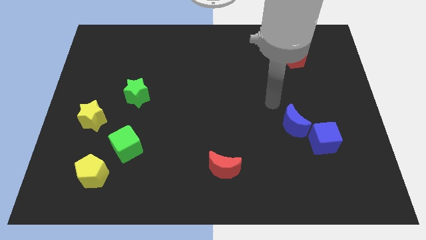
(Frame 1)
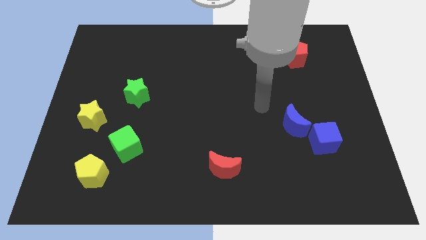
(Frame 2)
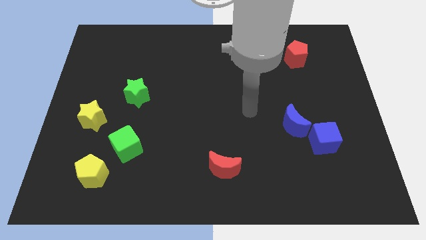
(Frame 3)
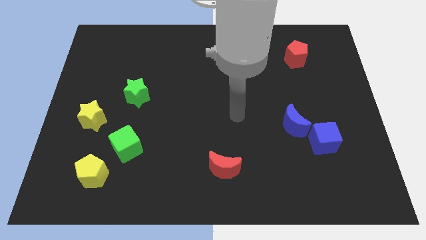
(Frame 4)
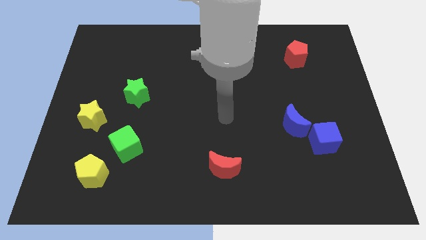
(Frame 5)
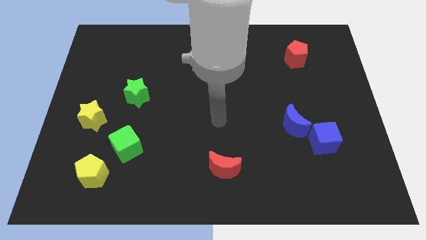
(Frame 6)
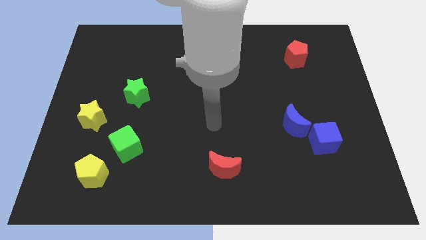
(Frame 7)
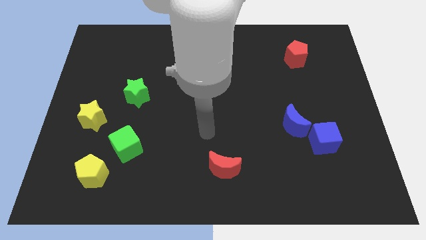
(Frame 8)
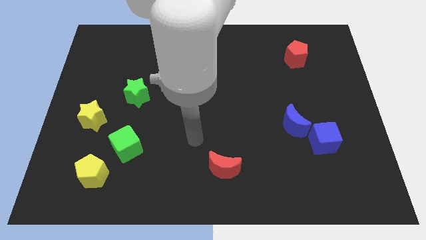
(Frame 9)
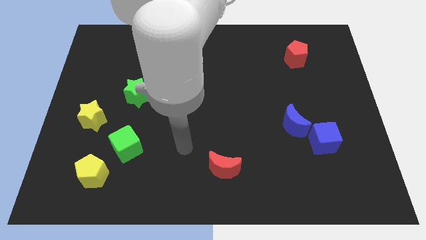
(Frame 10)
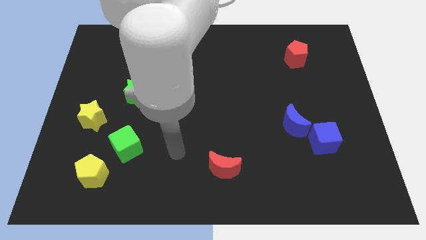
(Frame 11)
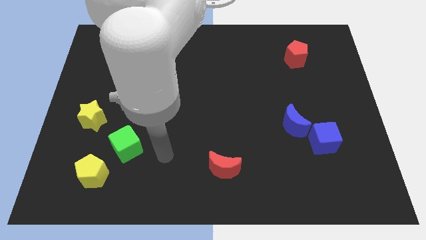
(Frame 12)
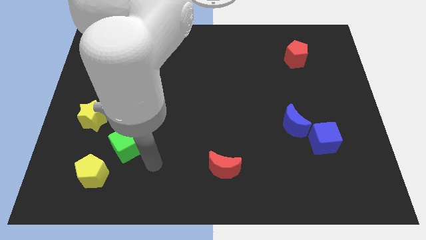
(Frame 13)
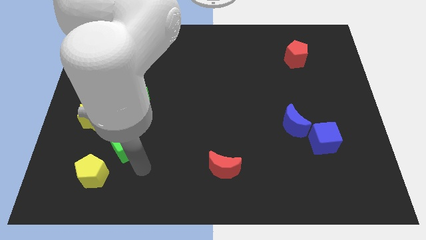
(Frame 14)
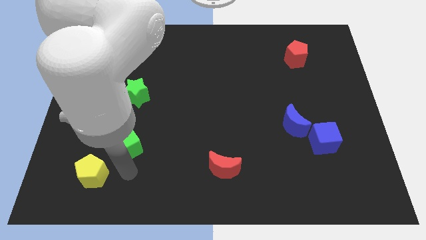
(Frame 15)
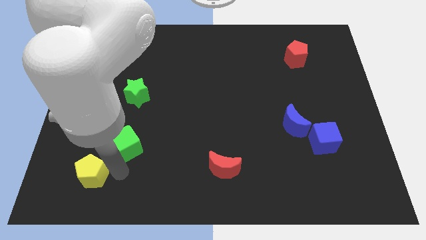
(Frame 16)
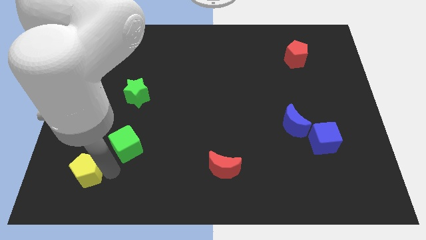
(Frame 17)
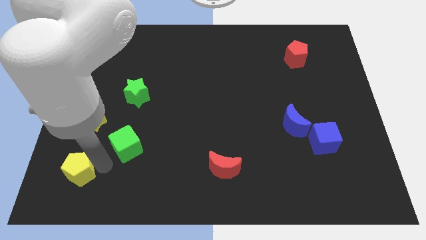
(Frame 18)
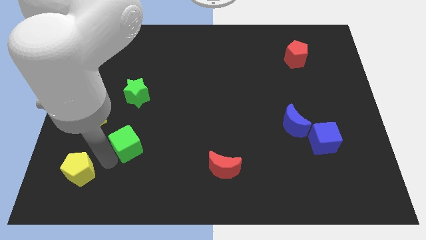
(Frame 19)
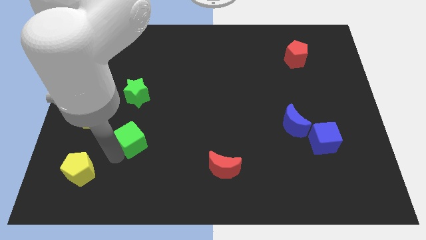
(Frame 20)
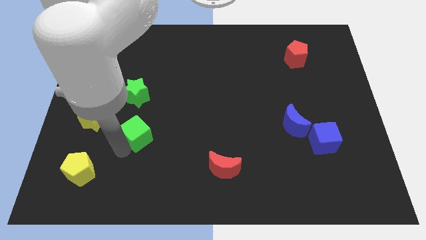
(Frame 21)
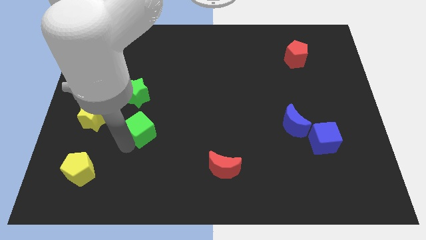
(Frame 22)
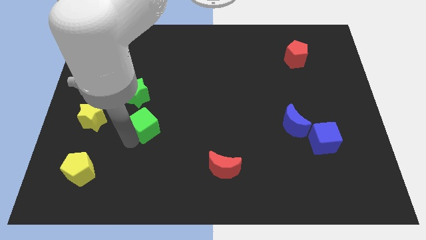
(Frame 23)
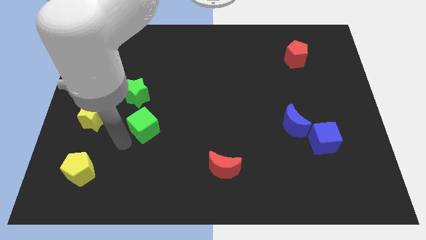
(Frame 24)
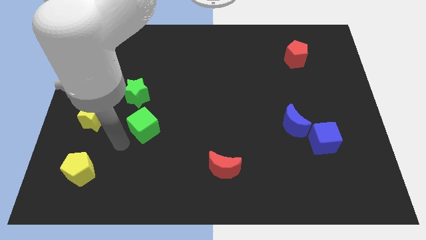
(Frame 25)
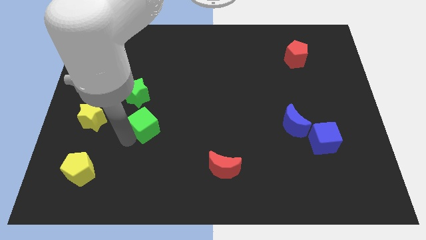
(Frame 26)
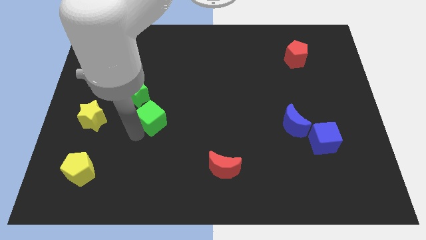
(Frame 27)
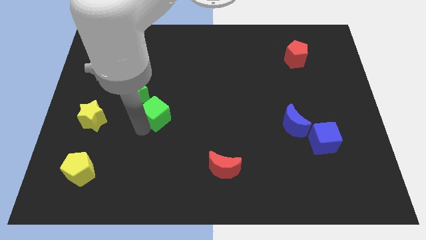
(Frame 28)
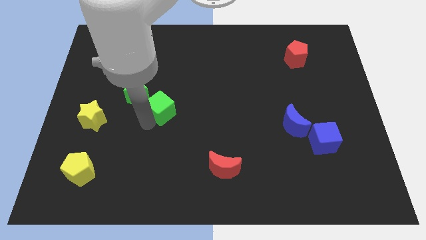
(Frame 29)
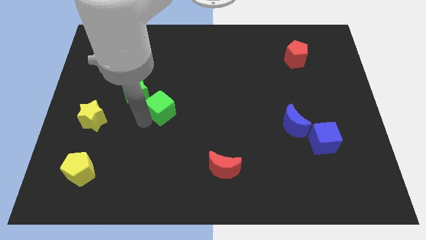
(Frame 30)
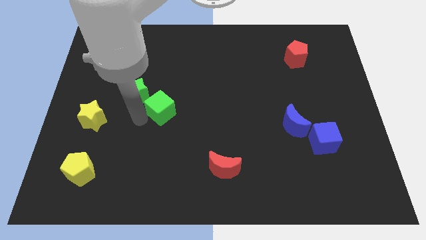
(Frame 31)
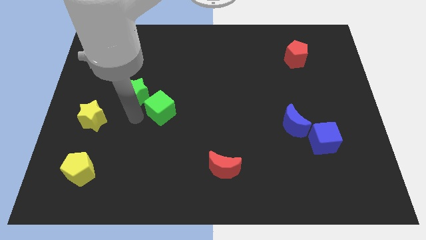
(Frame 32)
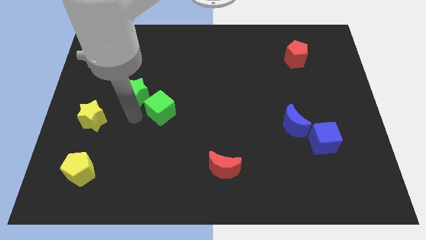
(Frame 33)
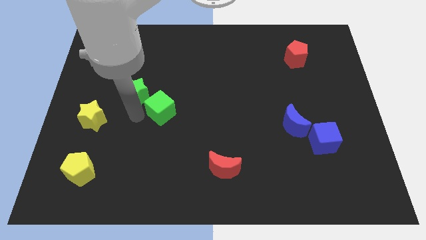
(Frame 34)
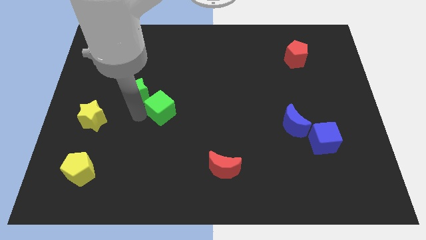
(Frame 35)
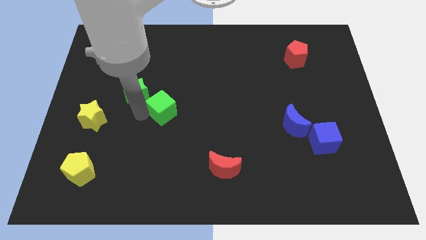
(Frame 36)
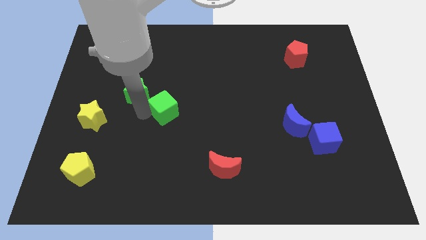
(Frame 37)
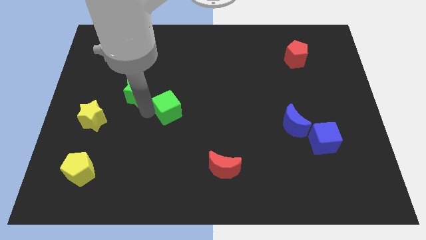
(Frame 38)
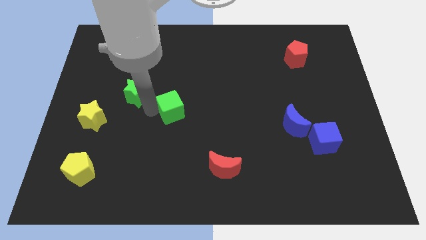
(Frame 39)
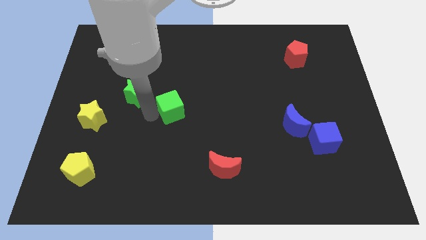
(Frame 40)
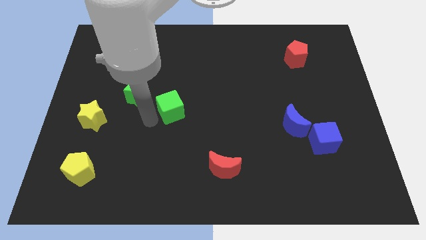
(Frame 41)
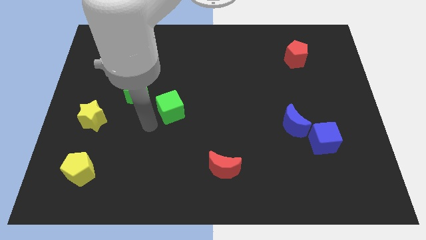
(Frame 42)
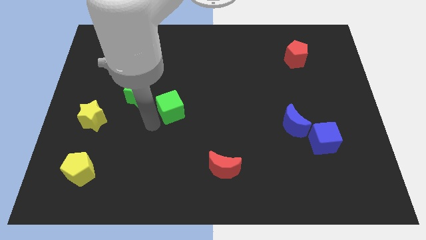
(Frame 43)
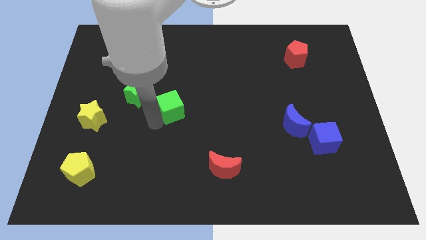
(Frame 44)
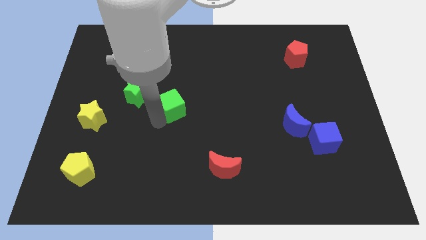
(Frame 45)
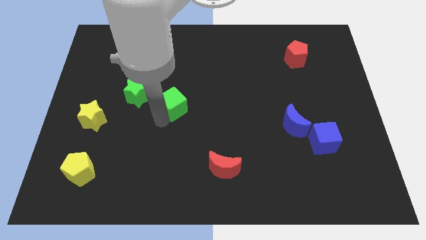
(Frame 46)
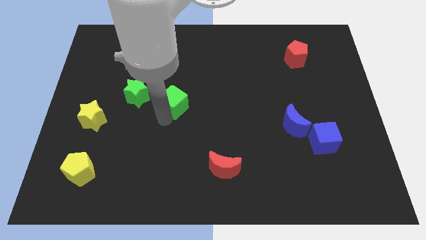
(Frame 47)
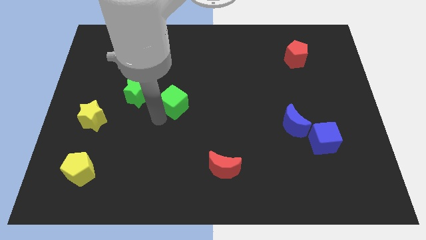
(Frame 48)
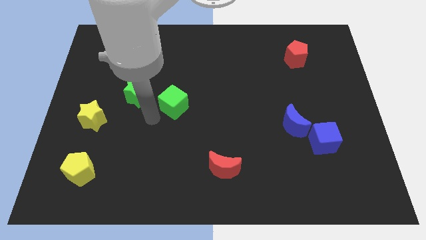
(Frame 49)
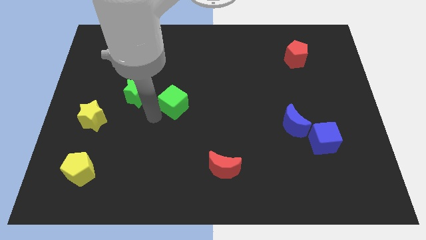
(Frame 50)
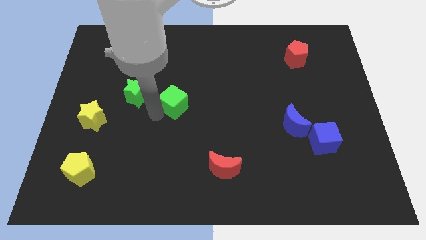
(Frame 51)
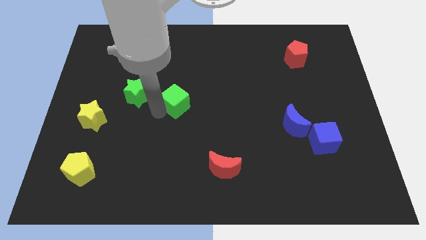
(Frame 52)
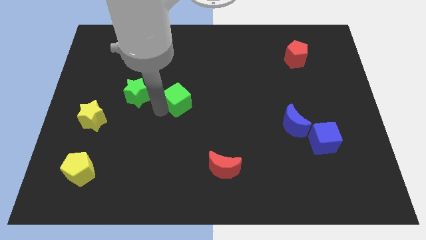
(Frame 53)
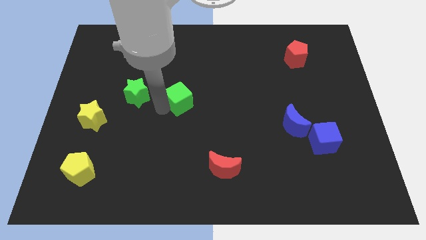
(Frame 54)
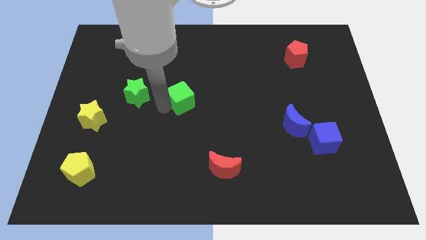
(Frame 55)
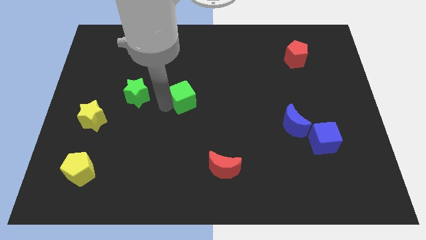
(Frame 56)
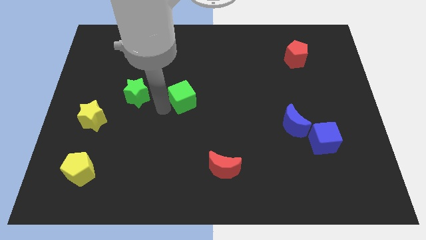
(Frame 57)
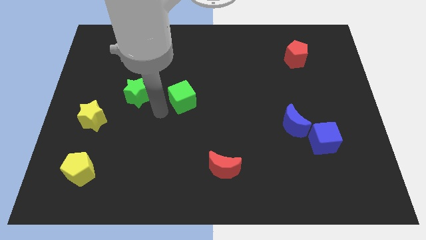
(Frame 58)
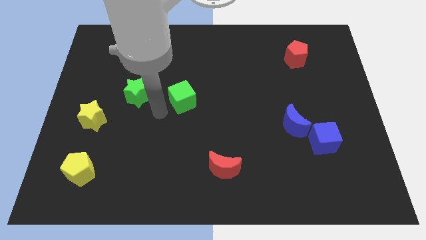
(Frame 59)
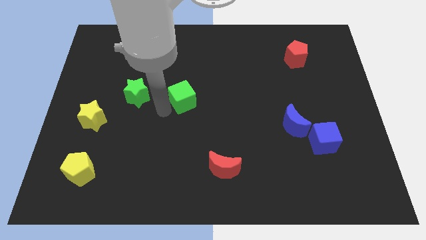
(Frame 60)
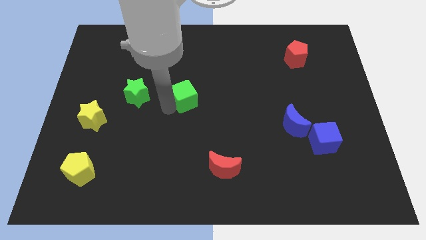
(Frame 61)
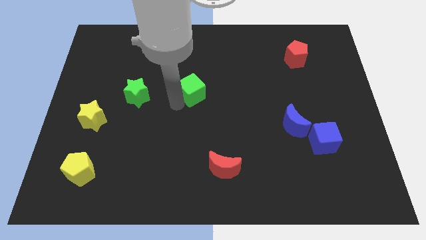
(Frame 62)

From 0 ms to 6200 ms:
move the green cube diagonally up and right

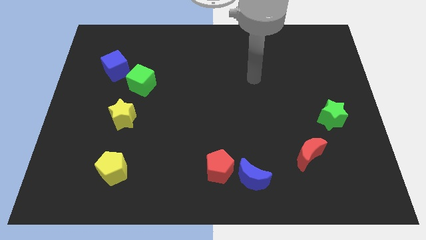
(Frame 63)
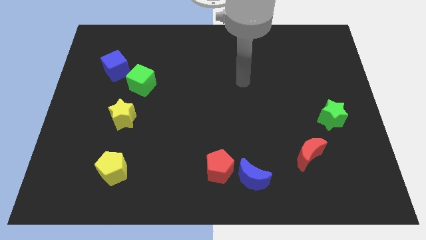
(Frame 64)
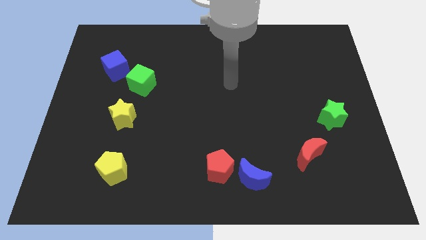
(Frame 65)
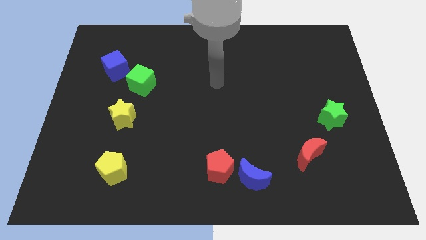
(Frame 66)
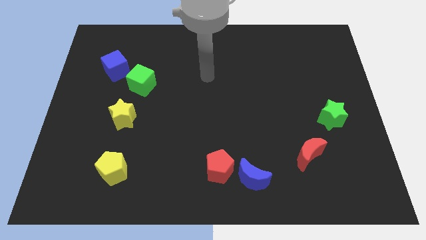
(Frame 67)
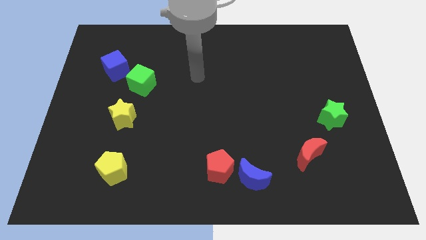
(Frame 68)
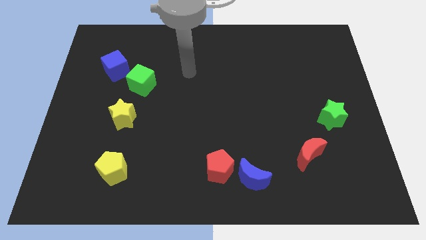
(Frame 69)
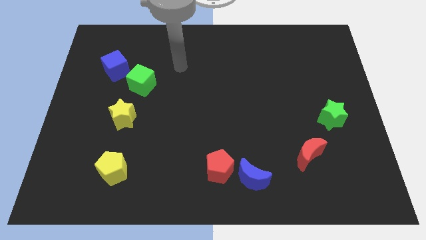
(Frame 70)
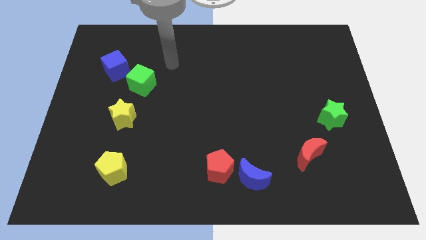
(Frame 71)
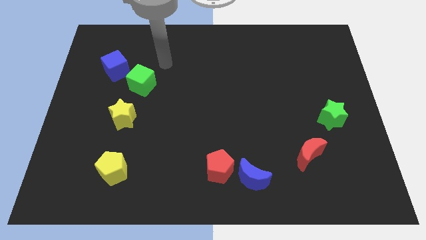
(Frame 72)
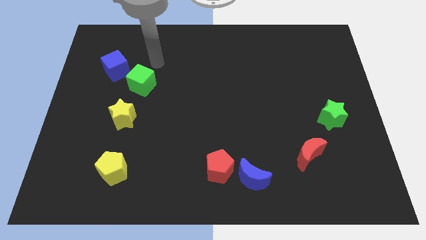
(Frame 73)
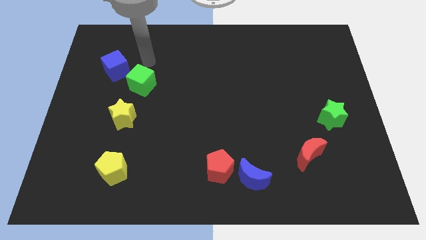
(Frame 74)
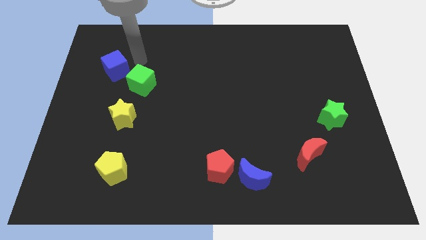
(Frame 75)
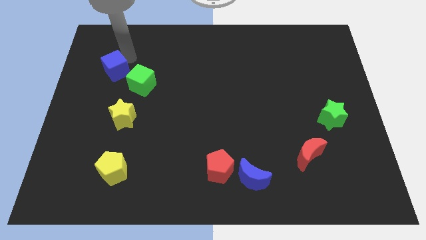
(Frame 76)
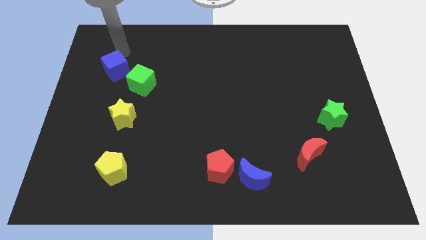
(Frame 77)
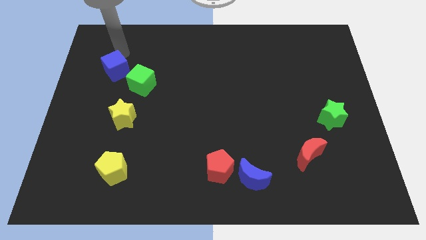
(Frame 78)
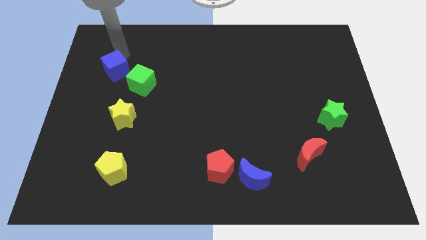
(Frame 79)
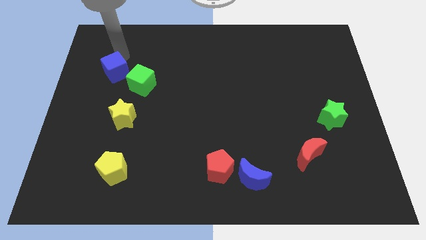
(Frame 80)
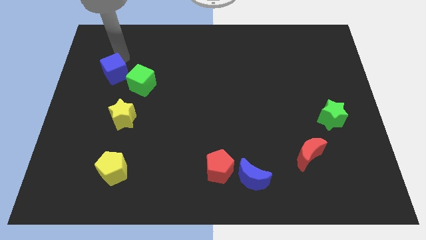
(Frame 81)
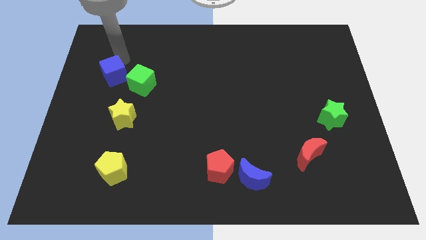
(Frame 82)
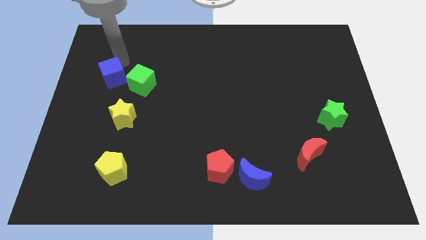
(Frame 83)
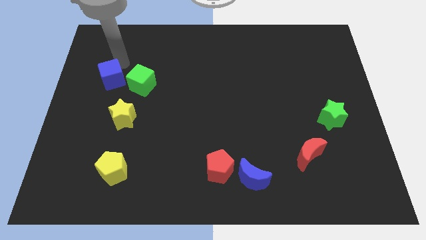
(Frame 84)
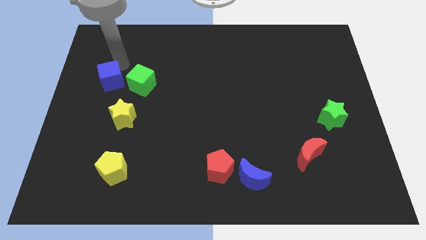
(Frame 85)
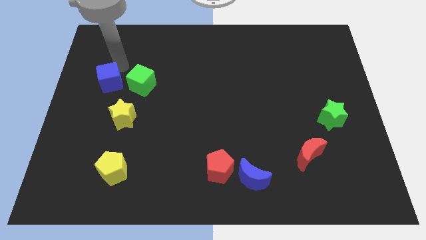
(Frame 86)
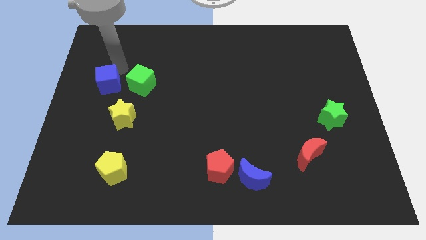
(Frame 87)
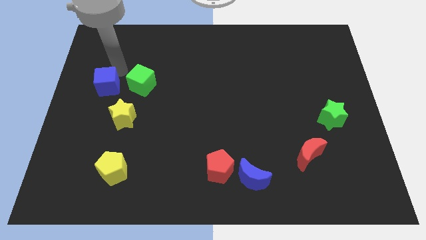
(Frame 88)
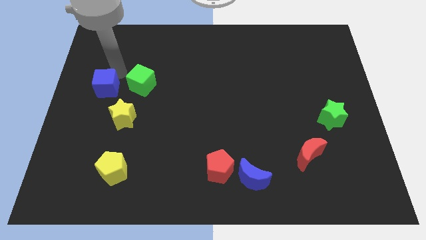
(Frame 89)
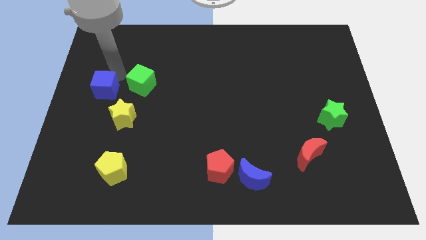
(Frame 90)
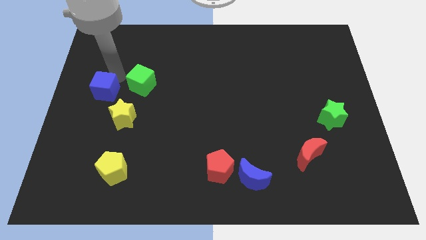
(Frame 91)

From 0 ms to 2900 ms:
move the blue cube a bit downwards
